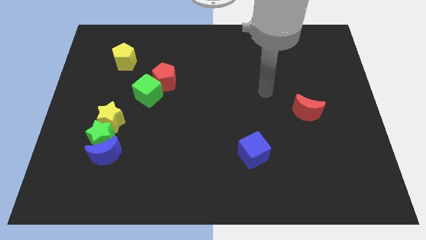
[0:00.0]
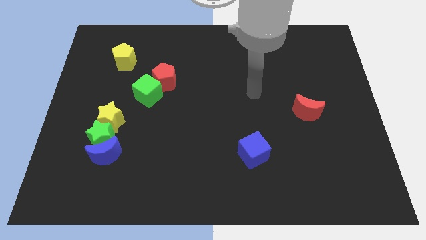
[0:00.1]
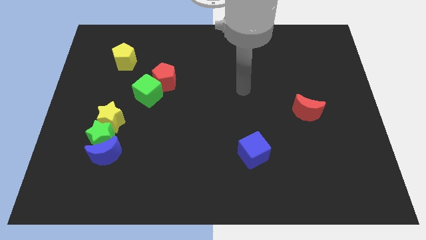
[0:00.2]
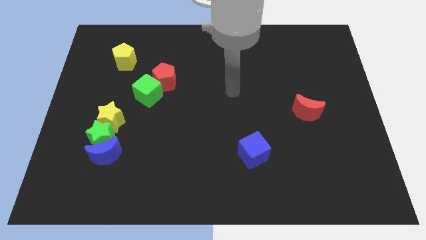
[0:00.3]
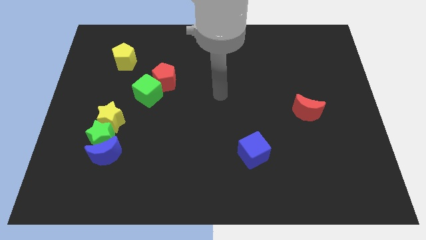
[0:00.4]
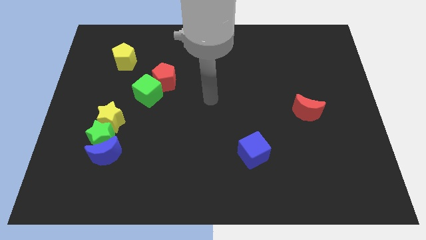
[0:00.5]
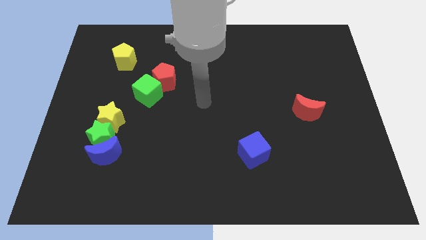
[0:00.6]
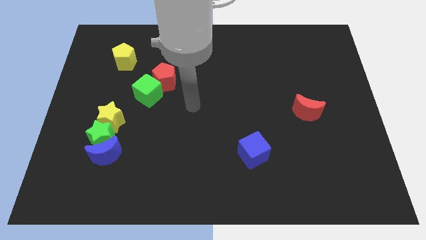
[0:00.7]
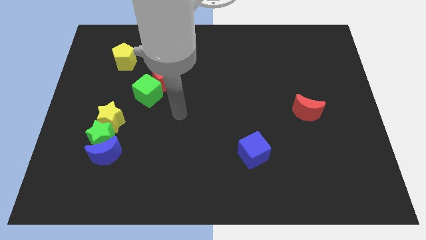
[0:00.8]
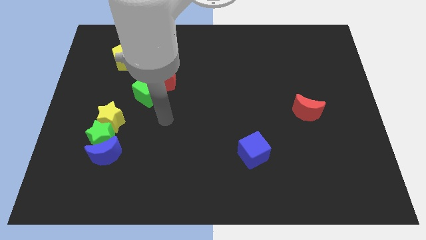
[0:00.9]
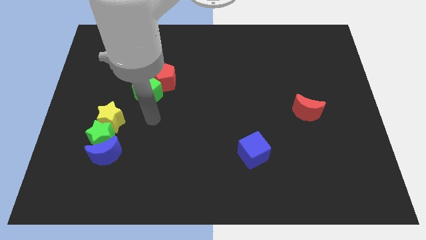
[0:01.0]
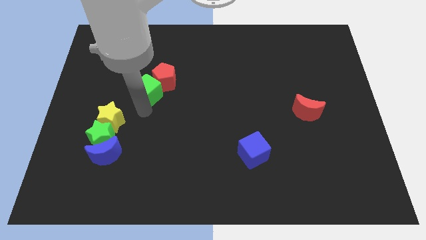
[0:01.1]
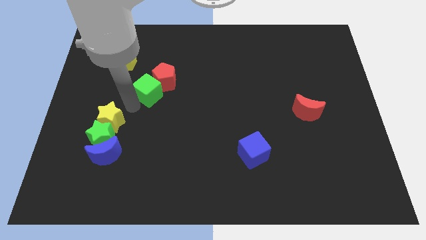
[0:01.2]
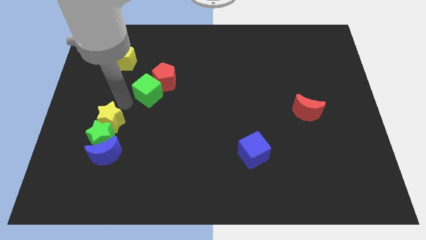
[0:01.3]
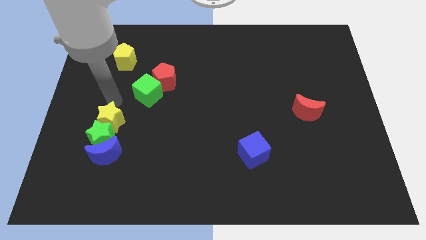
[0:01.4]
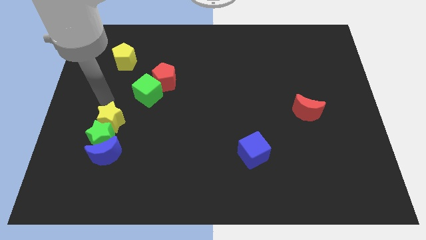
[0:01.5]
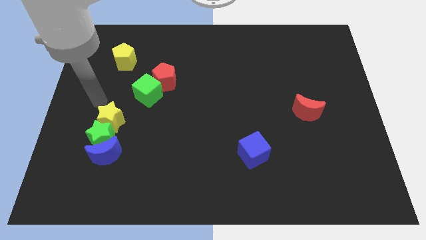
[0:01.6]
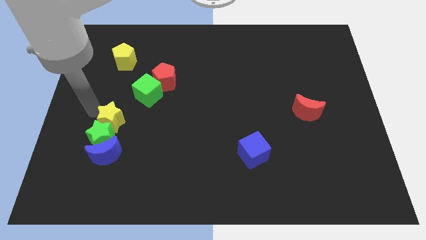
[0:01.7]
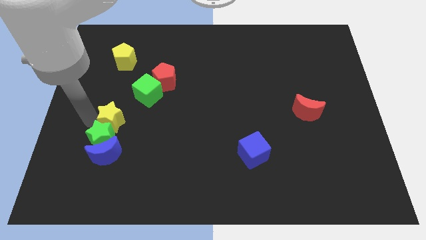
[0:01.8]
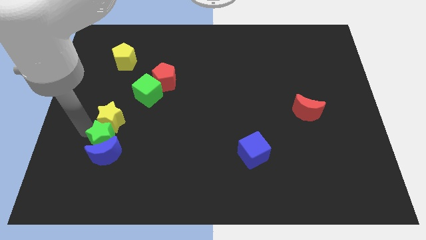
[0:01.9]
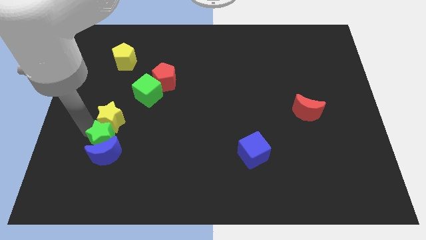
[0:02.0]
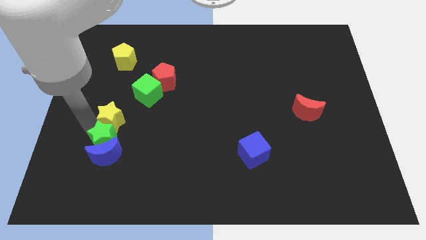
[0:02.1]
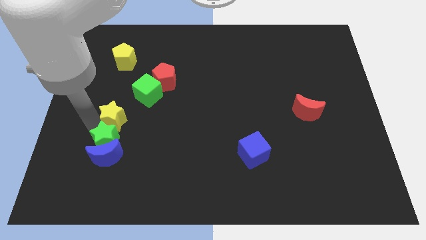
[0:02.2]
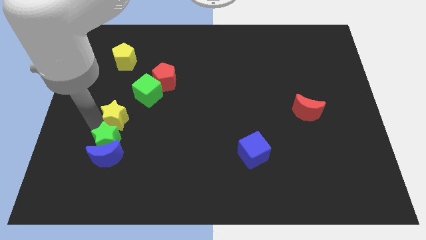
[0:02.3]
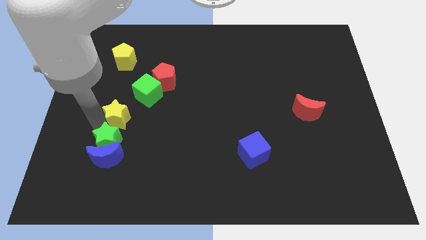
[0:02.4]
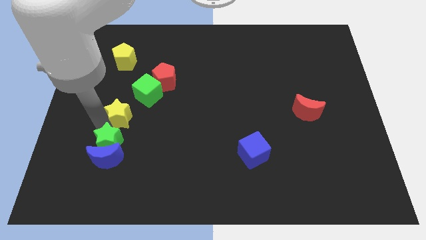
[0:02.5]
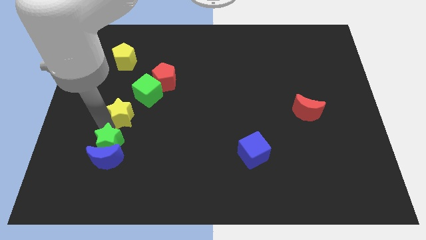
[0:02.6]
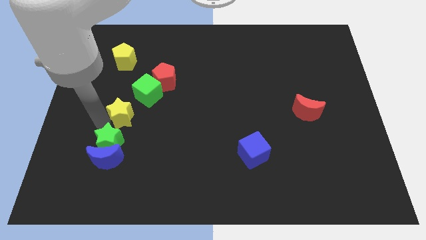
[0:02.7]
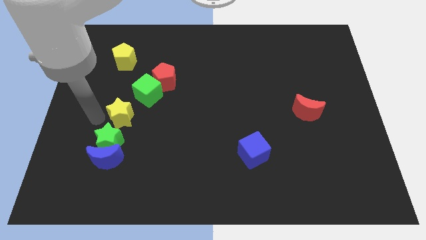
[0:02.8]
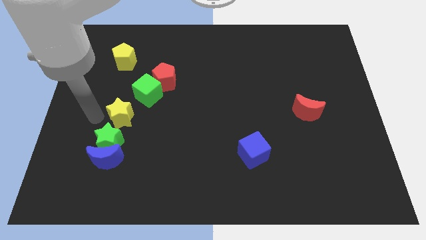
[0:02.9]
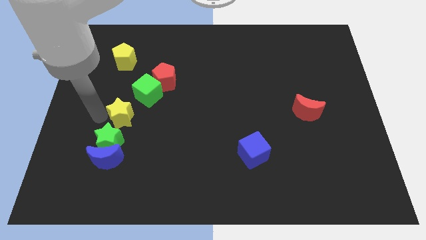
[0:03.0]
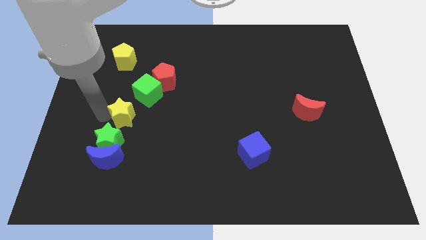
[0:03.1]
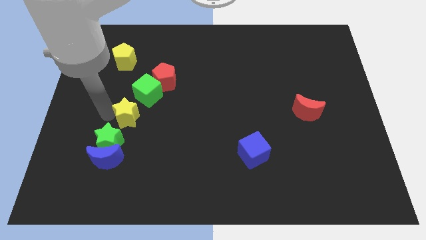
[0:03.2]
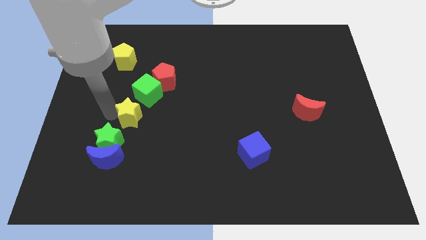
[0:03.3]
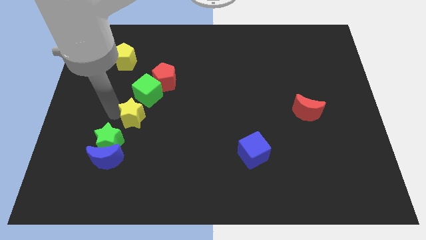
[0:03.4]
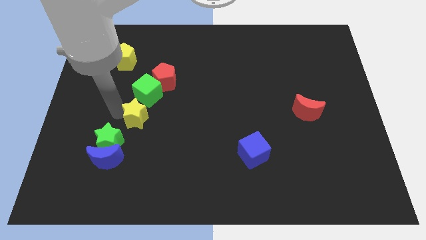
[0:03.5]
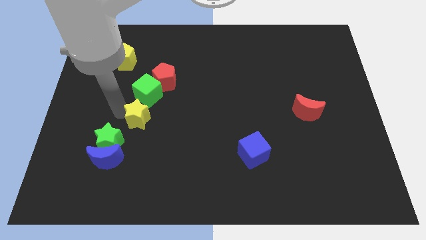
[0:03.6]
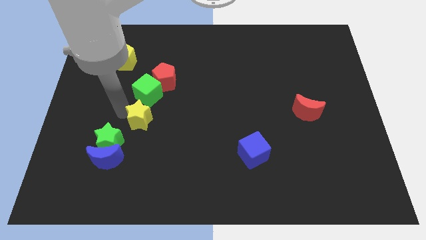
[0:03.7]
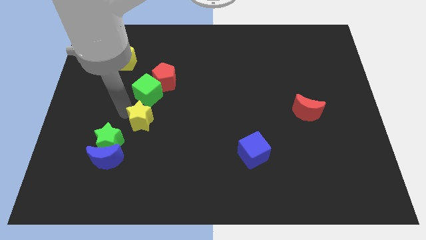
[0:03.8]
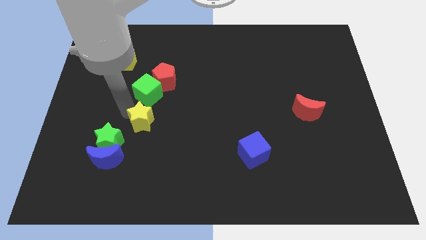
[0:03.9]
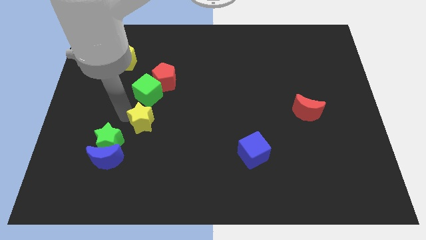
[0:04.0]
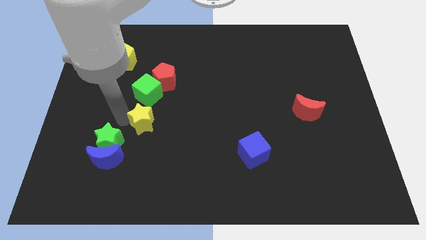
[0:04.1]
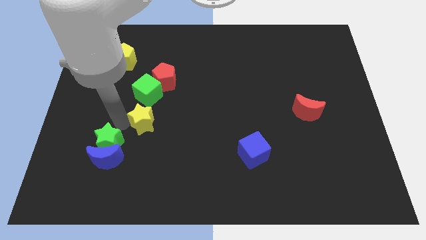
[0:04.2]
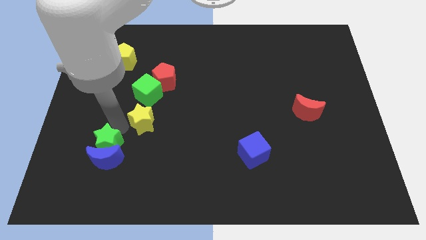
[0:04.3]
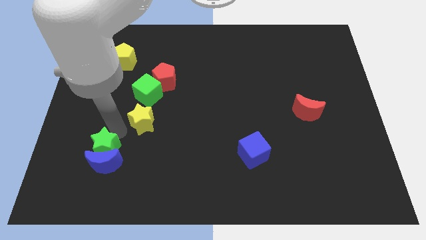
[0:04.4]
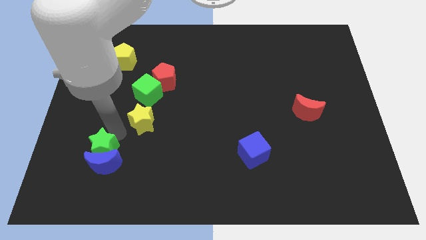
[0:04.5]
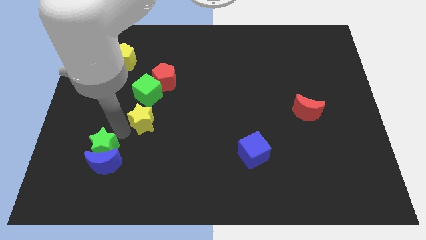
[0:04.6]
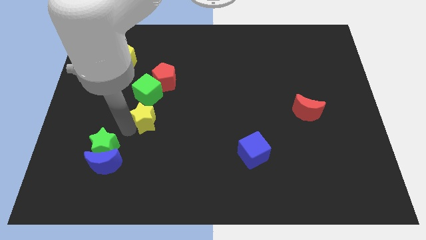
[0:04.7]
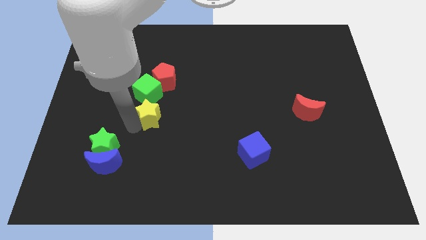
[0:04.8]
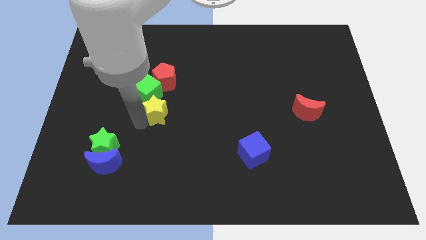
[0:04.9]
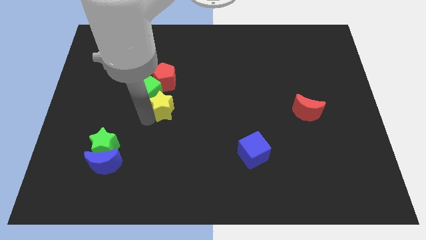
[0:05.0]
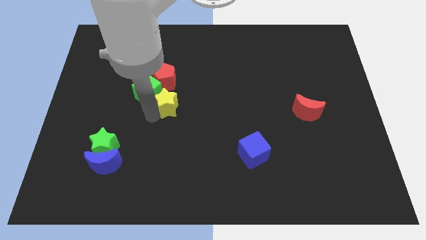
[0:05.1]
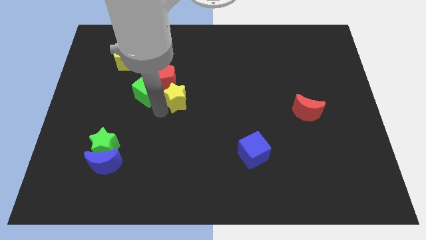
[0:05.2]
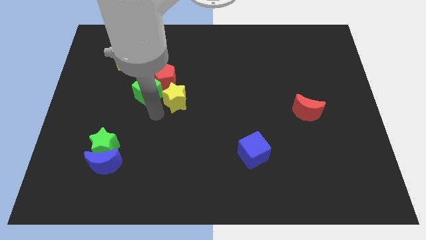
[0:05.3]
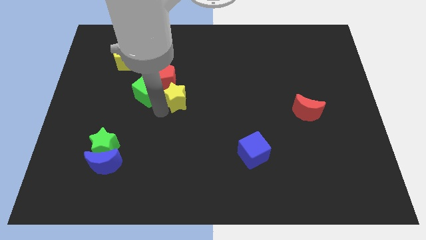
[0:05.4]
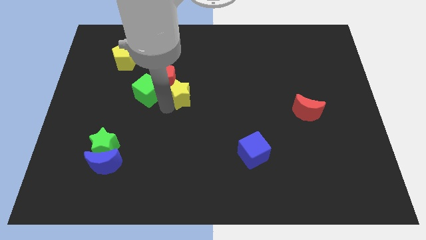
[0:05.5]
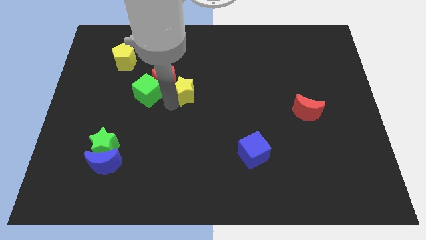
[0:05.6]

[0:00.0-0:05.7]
push the yellow star to the right of the red pentagon

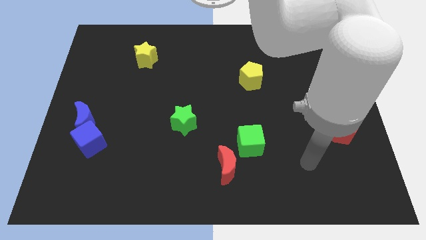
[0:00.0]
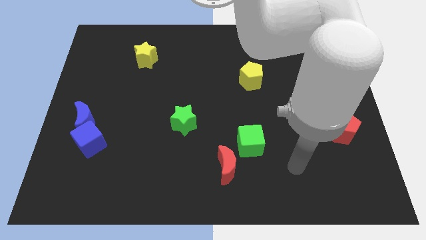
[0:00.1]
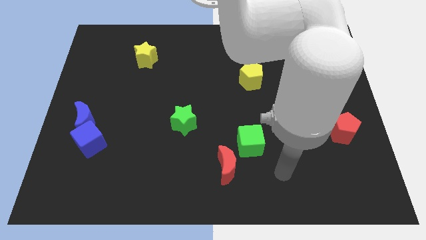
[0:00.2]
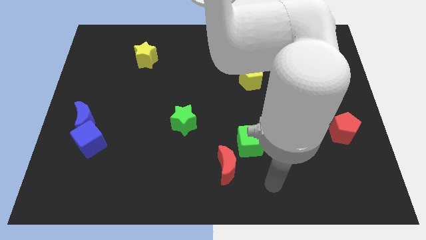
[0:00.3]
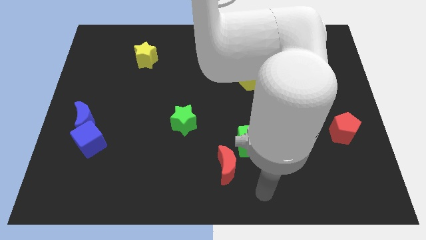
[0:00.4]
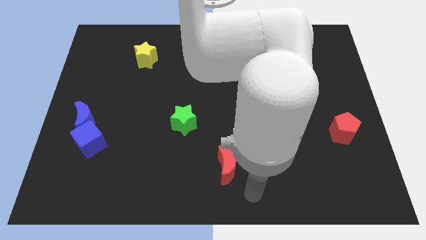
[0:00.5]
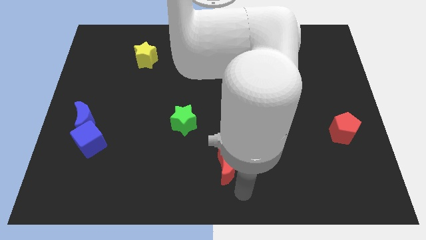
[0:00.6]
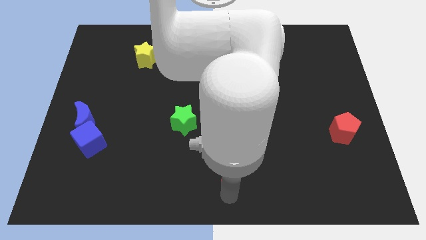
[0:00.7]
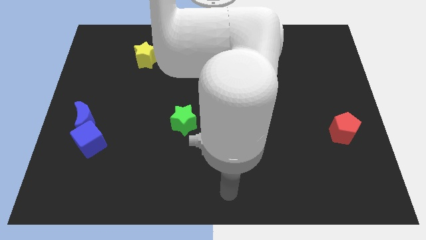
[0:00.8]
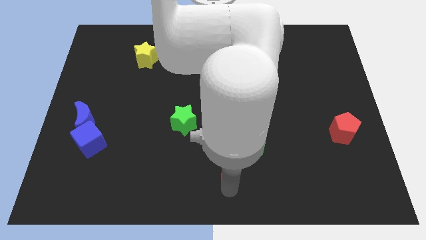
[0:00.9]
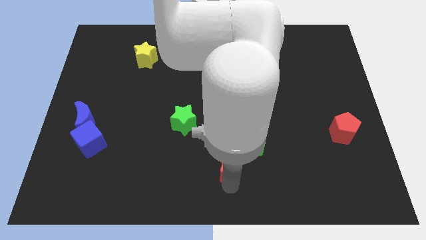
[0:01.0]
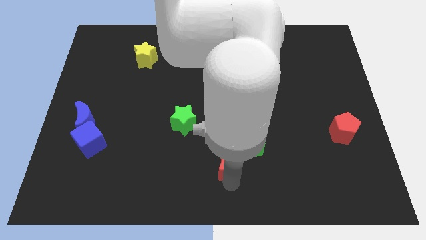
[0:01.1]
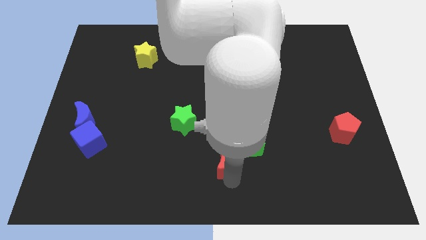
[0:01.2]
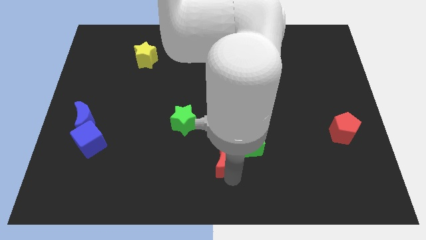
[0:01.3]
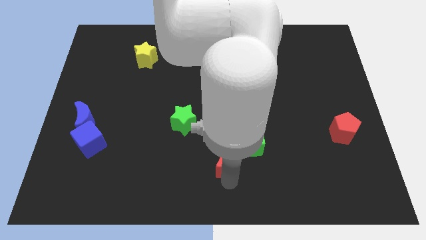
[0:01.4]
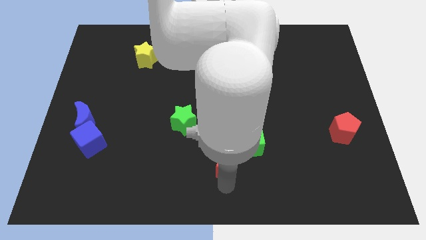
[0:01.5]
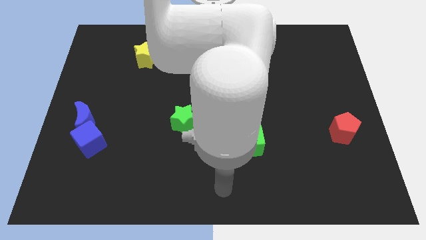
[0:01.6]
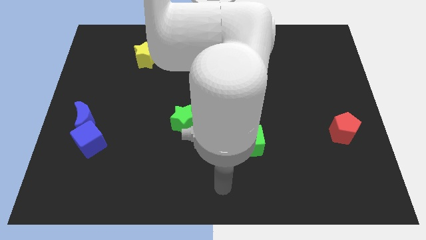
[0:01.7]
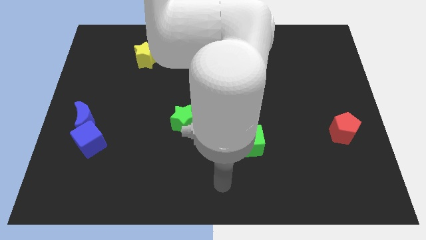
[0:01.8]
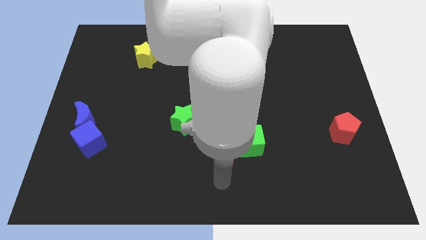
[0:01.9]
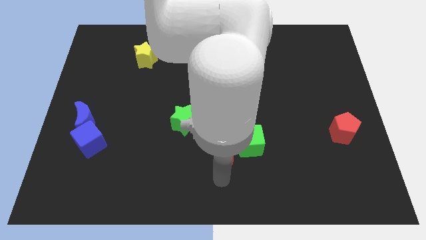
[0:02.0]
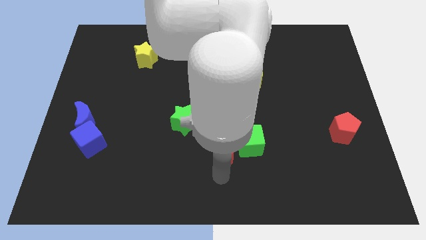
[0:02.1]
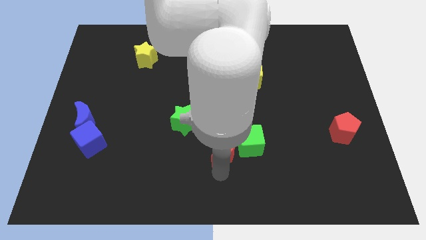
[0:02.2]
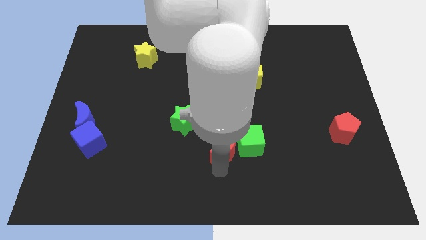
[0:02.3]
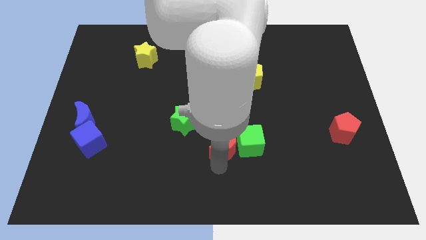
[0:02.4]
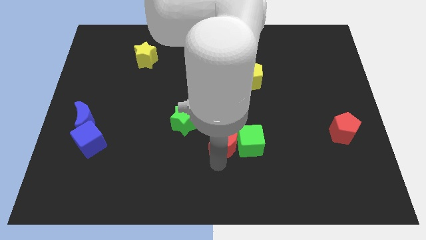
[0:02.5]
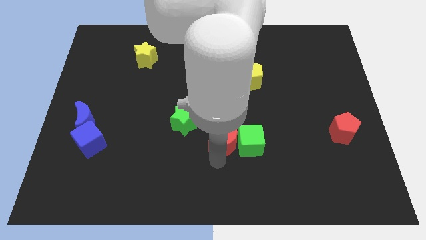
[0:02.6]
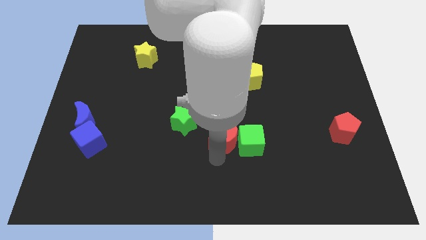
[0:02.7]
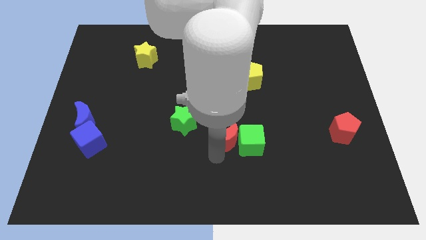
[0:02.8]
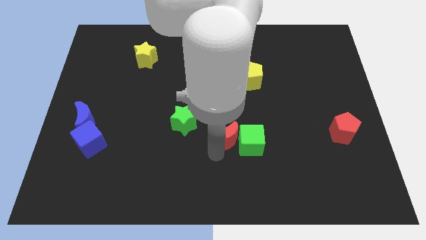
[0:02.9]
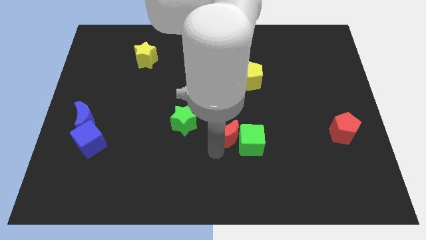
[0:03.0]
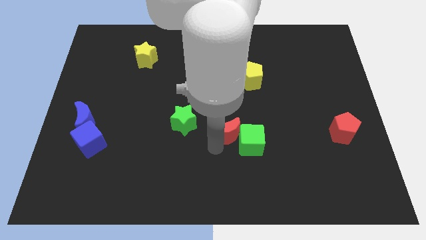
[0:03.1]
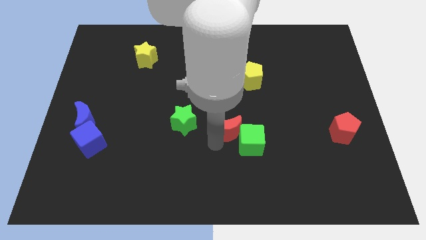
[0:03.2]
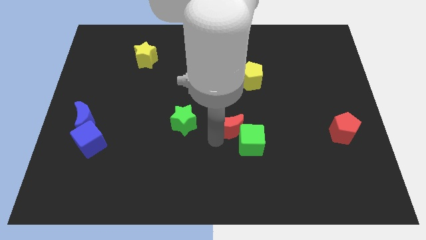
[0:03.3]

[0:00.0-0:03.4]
slide the red moon to the top of the green cube
